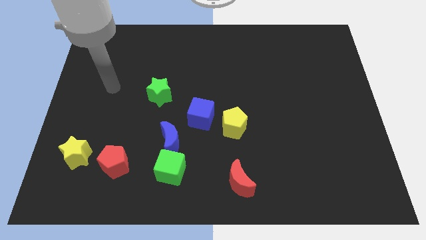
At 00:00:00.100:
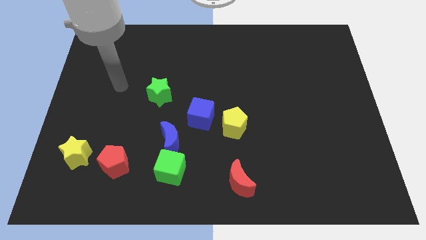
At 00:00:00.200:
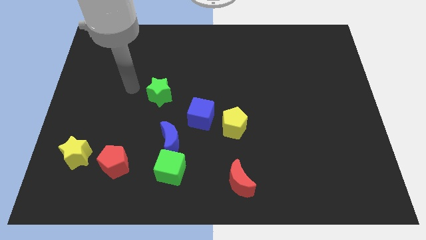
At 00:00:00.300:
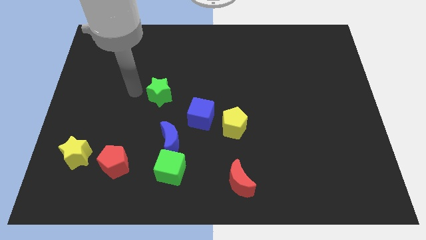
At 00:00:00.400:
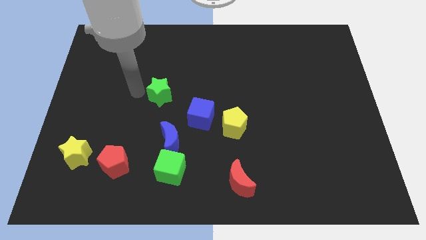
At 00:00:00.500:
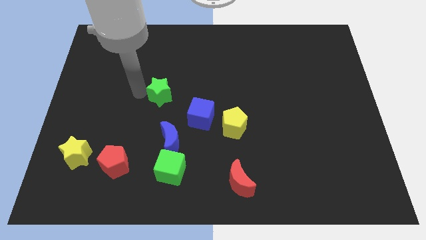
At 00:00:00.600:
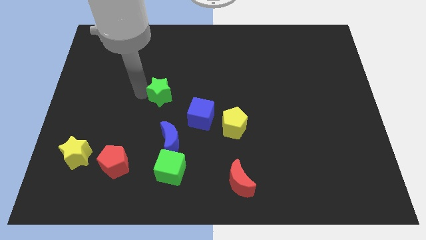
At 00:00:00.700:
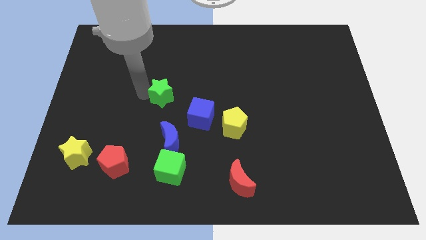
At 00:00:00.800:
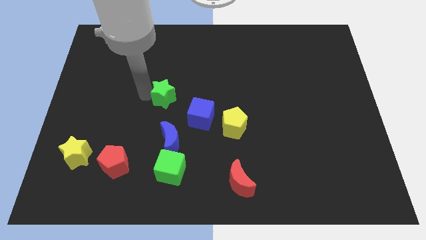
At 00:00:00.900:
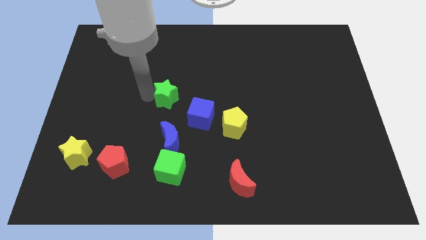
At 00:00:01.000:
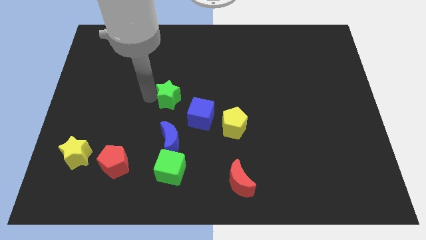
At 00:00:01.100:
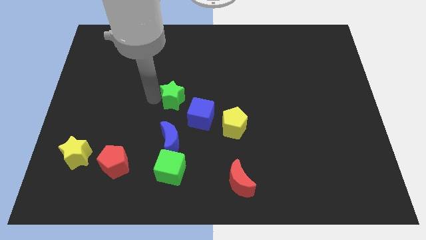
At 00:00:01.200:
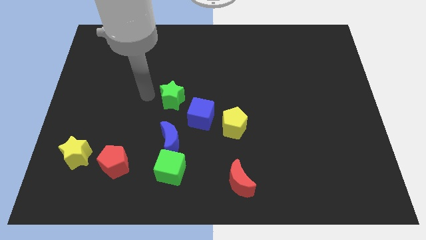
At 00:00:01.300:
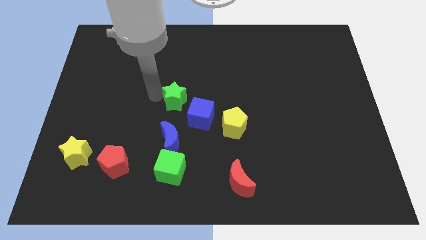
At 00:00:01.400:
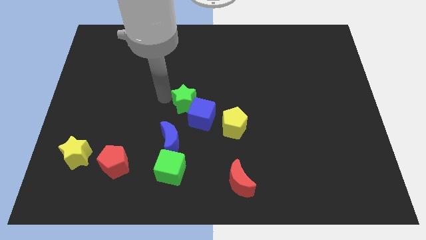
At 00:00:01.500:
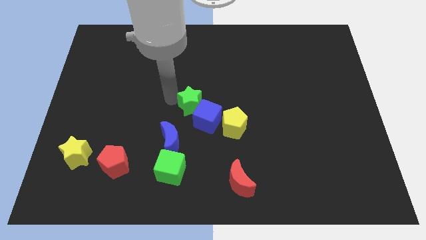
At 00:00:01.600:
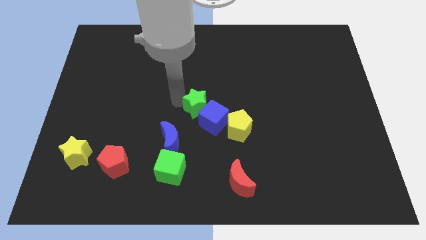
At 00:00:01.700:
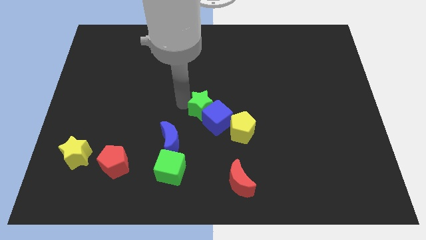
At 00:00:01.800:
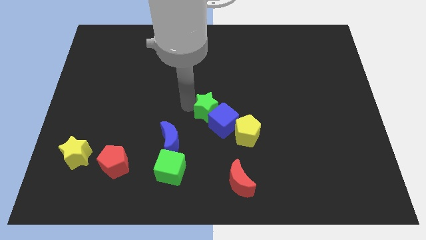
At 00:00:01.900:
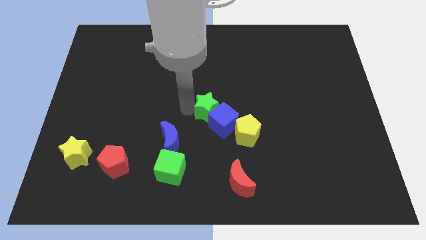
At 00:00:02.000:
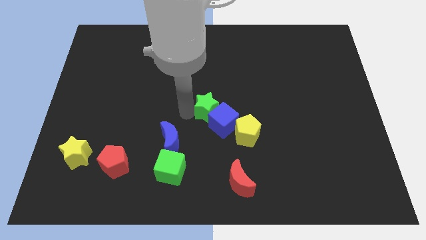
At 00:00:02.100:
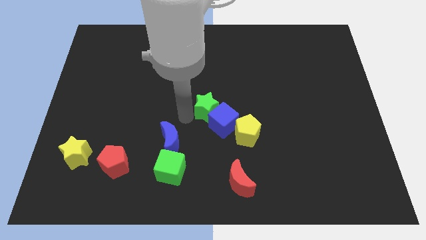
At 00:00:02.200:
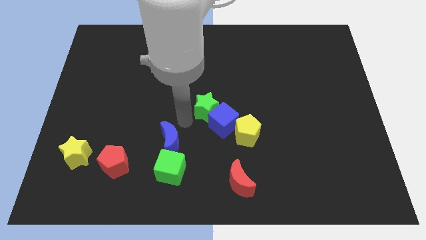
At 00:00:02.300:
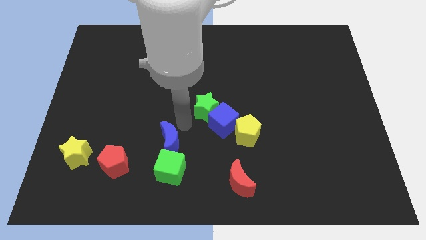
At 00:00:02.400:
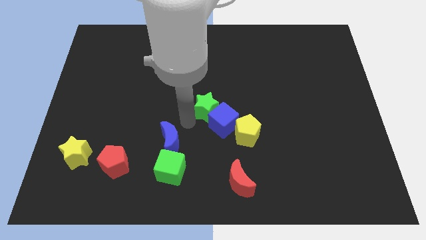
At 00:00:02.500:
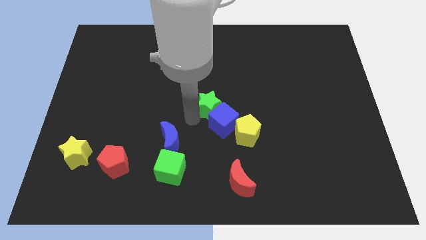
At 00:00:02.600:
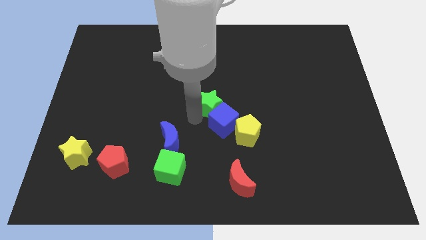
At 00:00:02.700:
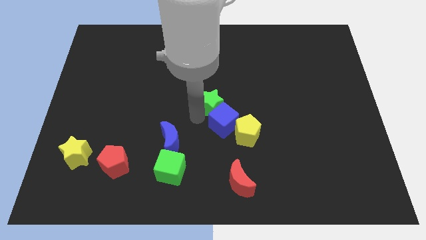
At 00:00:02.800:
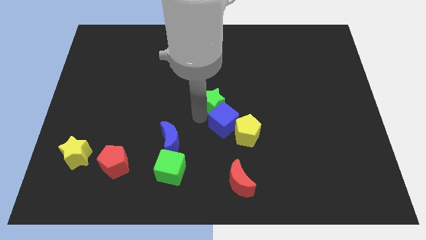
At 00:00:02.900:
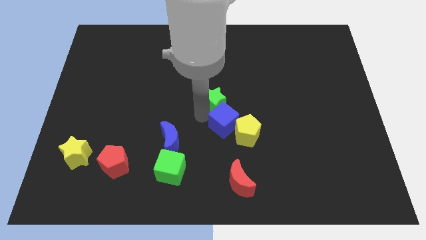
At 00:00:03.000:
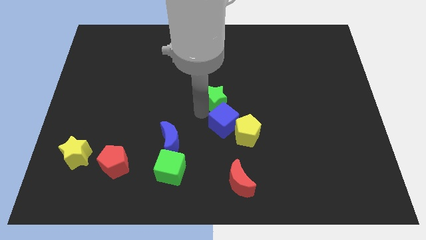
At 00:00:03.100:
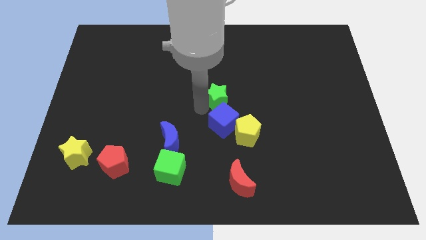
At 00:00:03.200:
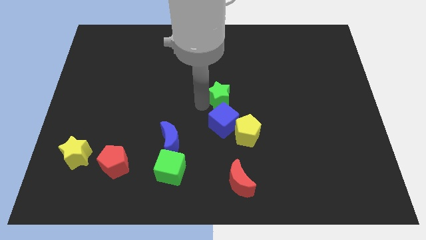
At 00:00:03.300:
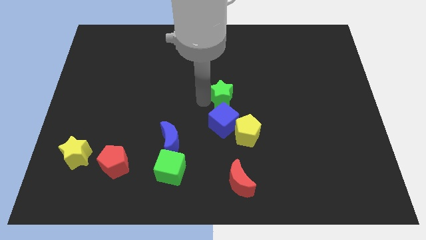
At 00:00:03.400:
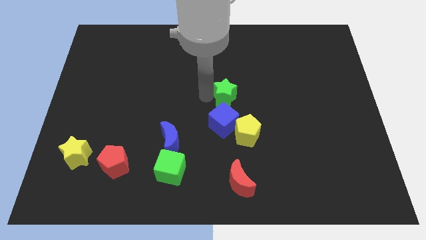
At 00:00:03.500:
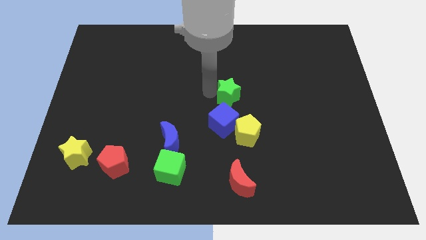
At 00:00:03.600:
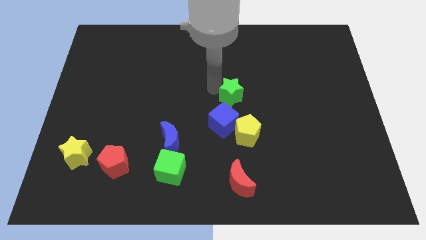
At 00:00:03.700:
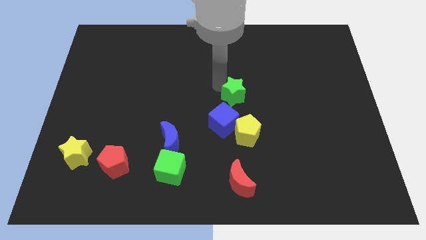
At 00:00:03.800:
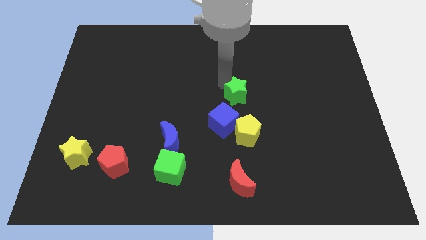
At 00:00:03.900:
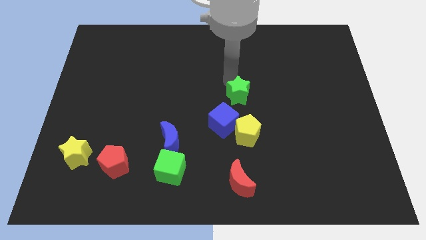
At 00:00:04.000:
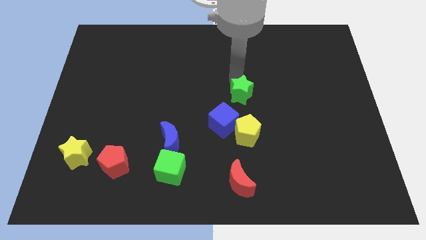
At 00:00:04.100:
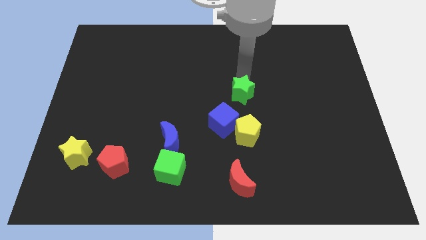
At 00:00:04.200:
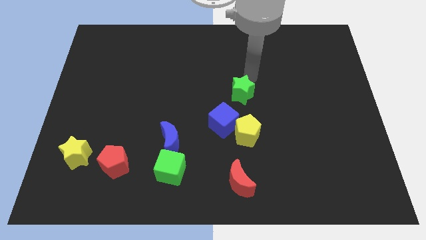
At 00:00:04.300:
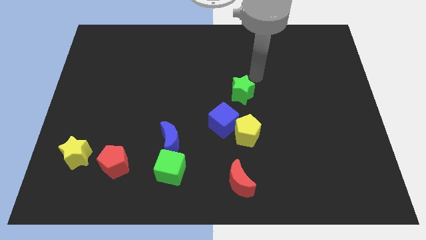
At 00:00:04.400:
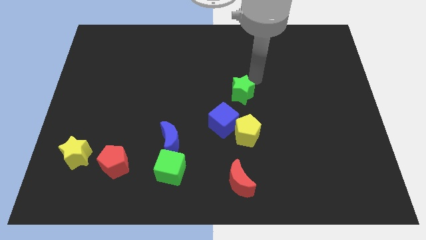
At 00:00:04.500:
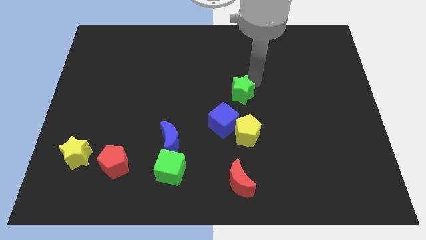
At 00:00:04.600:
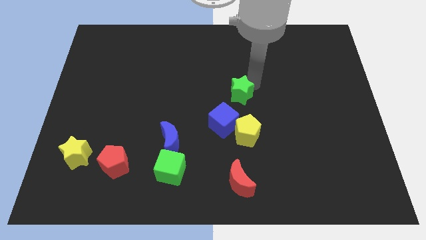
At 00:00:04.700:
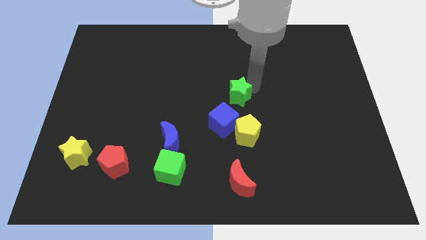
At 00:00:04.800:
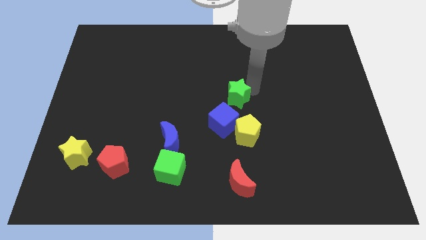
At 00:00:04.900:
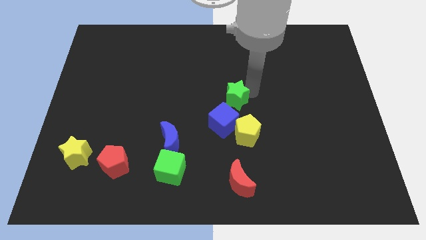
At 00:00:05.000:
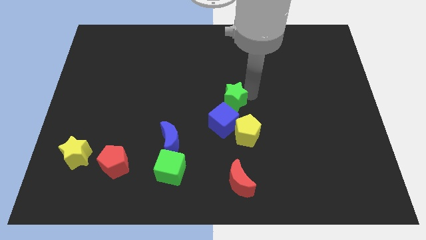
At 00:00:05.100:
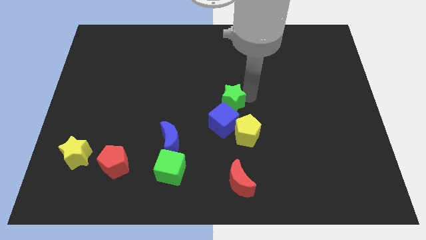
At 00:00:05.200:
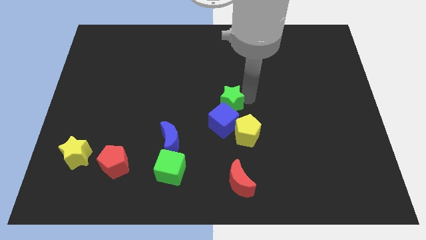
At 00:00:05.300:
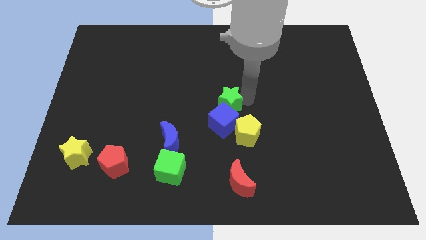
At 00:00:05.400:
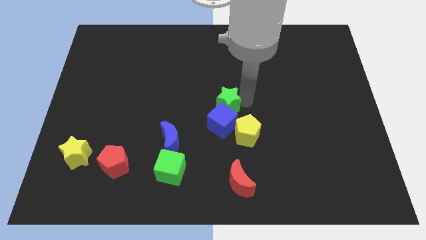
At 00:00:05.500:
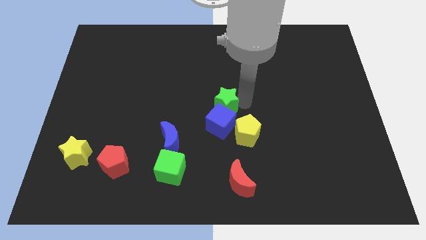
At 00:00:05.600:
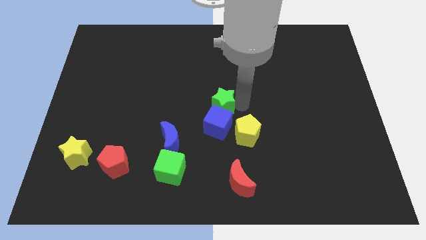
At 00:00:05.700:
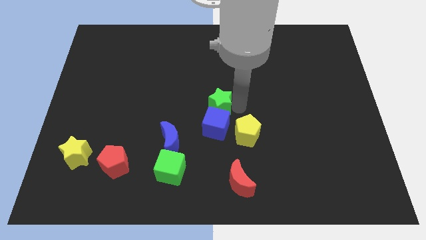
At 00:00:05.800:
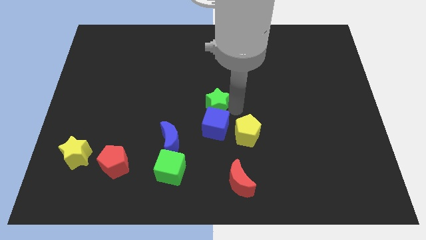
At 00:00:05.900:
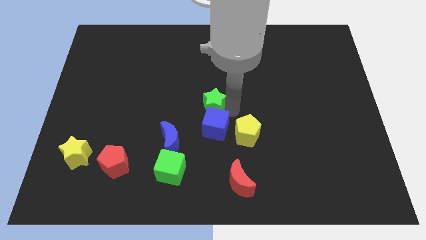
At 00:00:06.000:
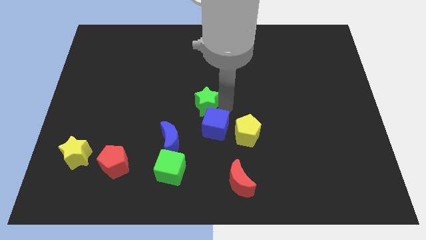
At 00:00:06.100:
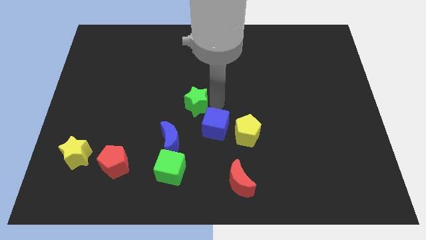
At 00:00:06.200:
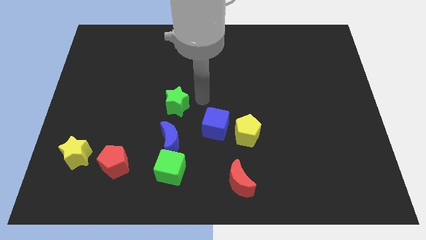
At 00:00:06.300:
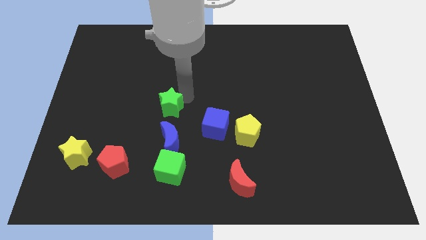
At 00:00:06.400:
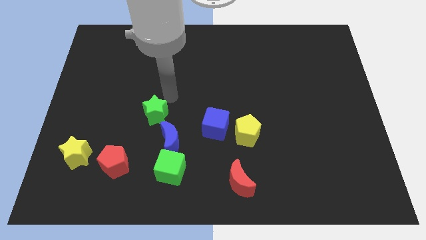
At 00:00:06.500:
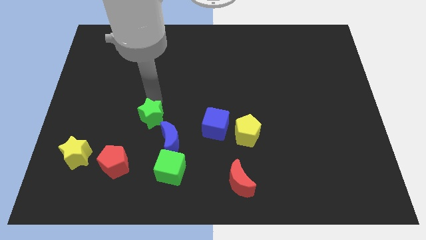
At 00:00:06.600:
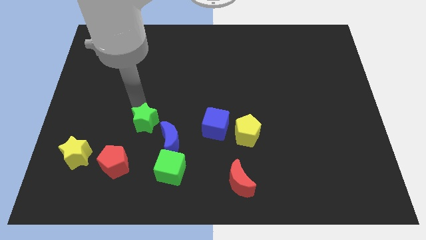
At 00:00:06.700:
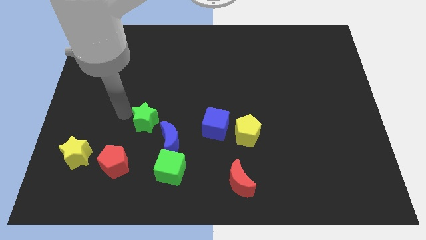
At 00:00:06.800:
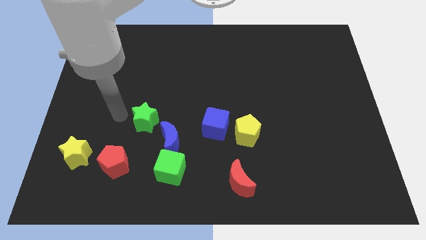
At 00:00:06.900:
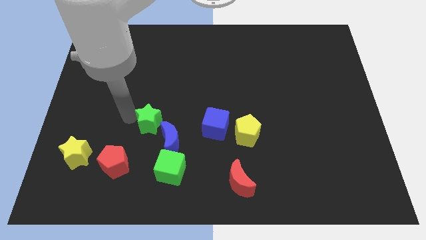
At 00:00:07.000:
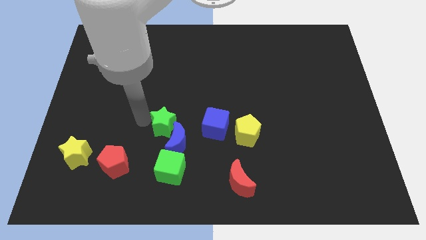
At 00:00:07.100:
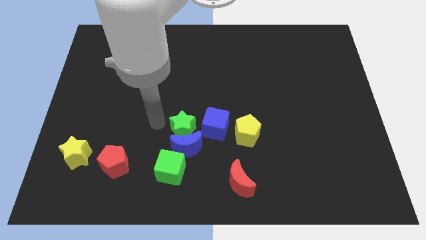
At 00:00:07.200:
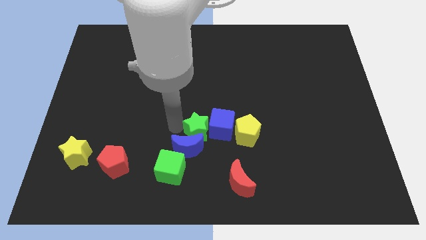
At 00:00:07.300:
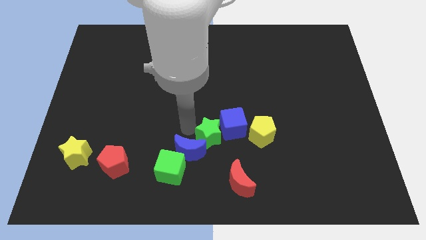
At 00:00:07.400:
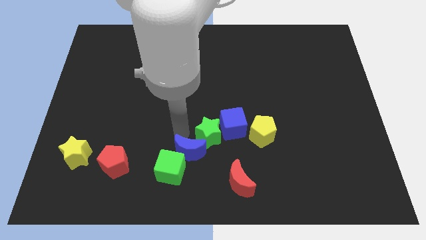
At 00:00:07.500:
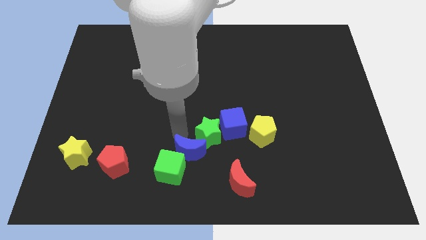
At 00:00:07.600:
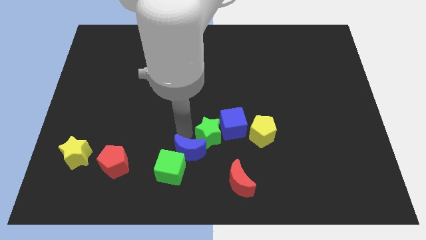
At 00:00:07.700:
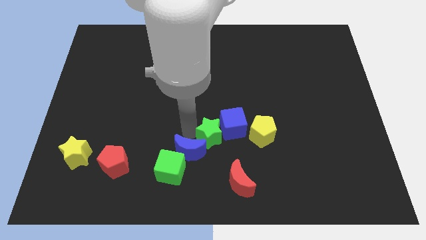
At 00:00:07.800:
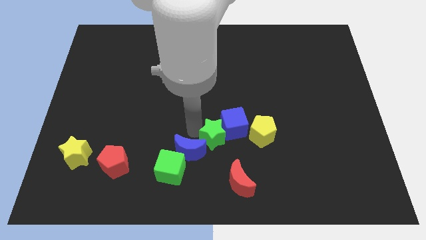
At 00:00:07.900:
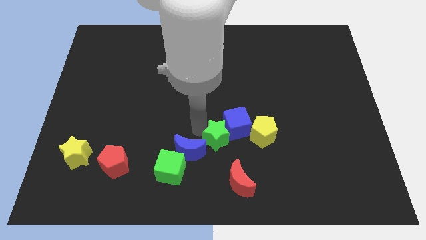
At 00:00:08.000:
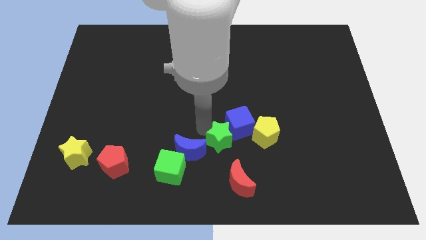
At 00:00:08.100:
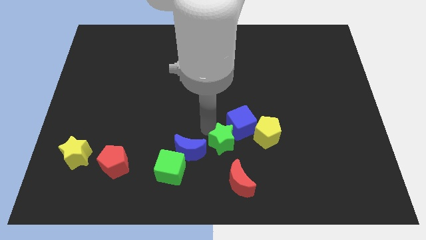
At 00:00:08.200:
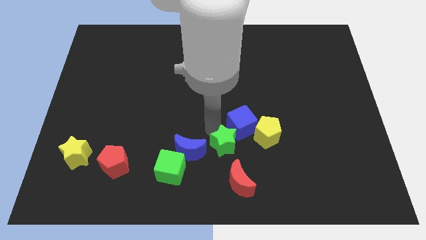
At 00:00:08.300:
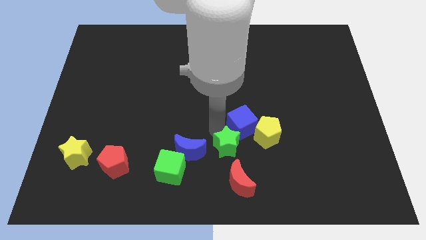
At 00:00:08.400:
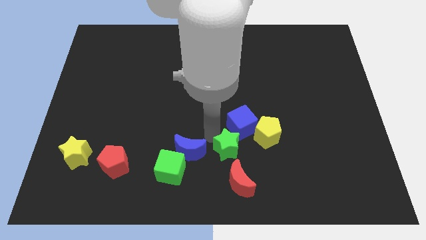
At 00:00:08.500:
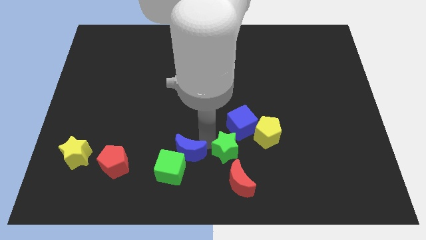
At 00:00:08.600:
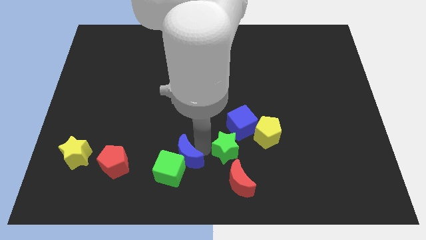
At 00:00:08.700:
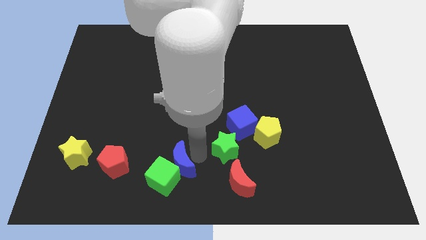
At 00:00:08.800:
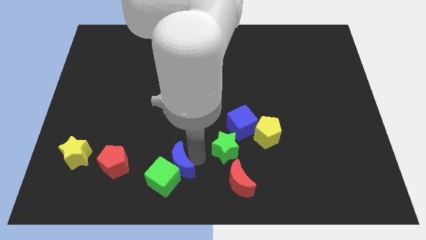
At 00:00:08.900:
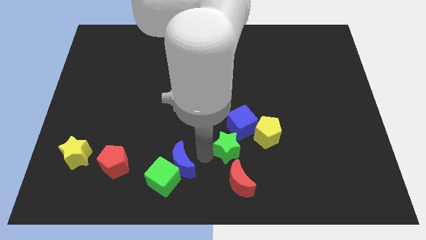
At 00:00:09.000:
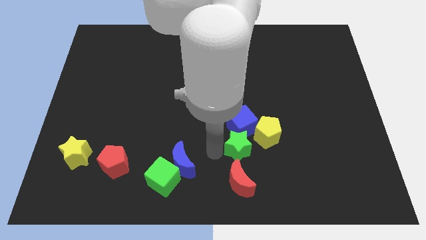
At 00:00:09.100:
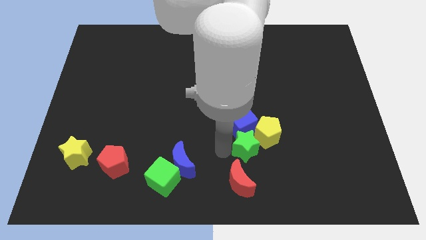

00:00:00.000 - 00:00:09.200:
slide the green star close to the yellow pentagon
